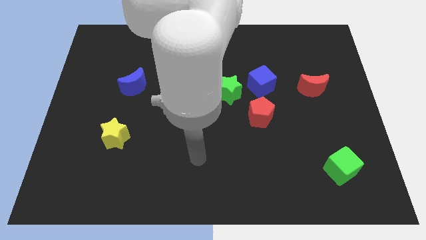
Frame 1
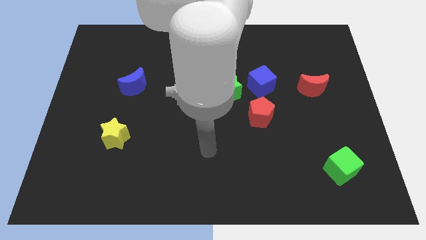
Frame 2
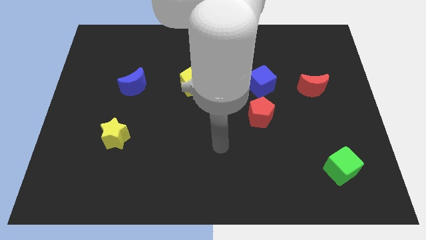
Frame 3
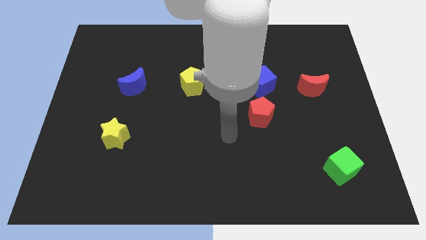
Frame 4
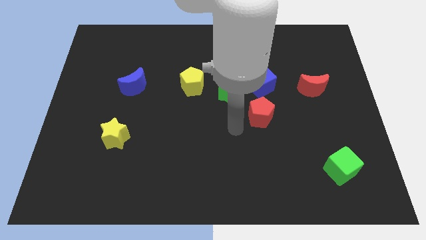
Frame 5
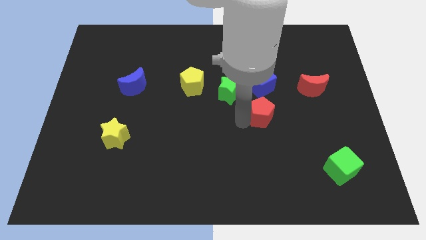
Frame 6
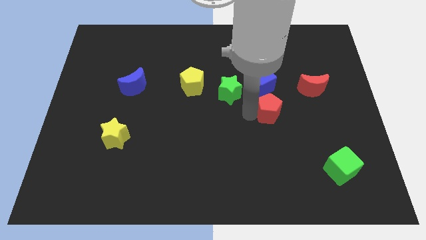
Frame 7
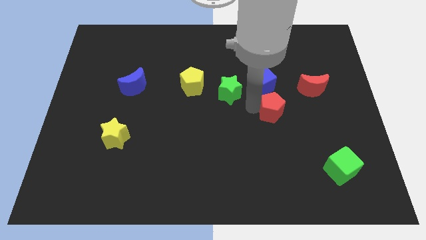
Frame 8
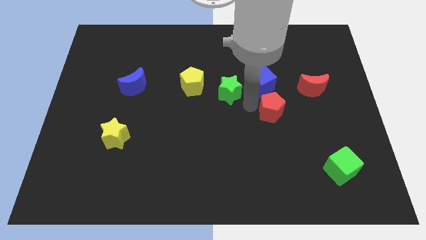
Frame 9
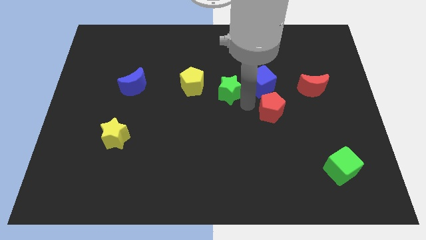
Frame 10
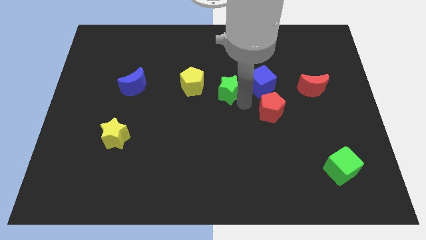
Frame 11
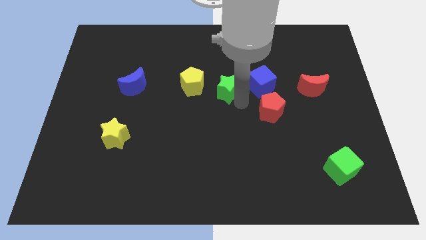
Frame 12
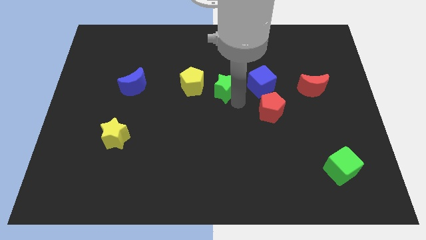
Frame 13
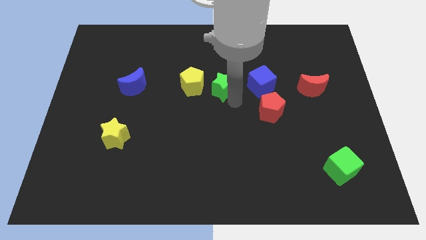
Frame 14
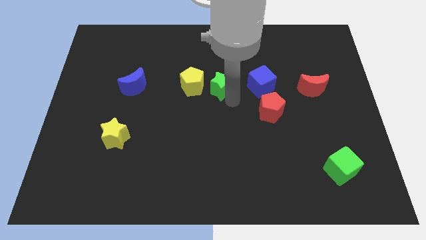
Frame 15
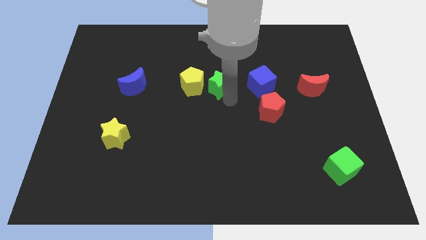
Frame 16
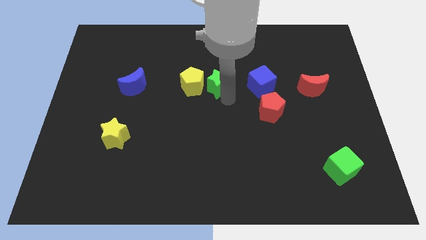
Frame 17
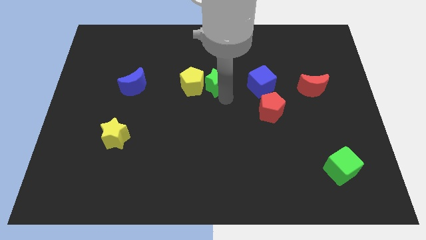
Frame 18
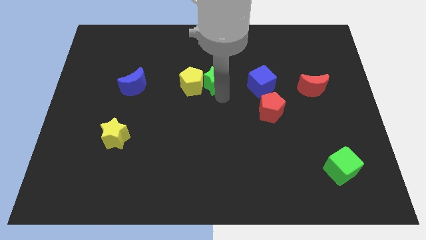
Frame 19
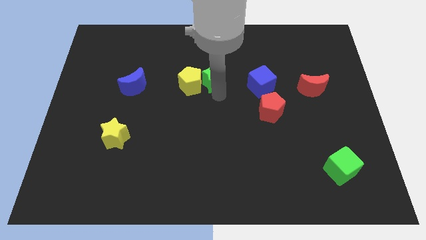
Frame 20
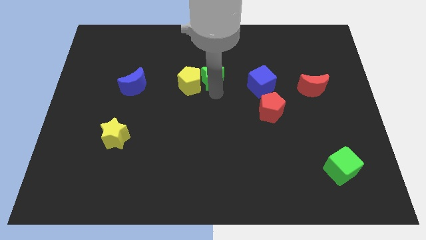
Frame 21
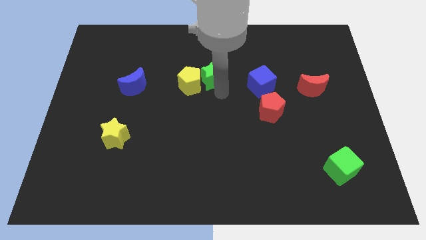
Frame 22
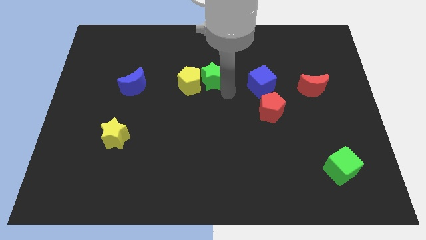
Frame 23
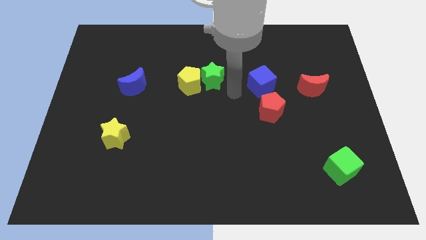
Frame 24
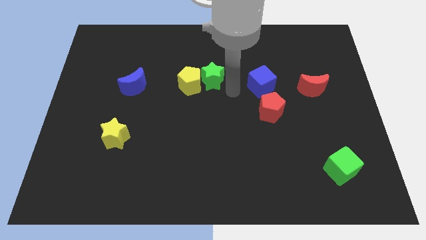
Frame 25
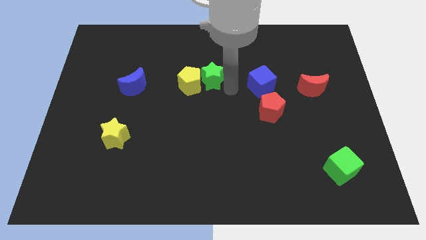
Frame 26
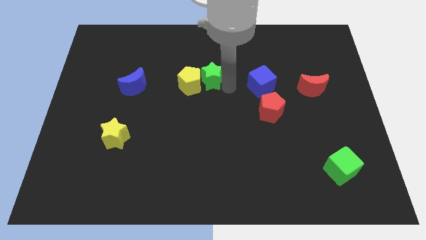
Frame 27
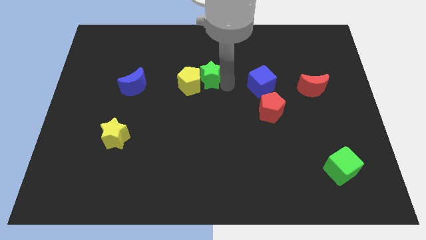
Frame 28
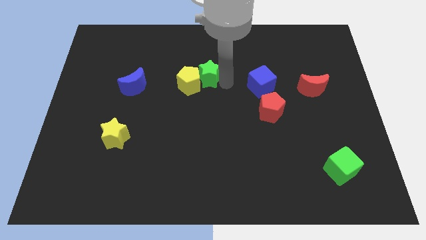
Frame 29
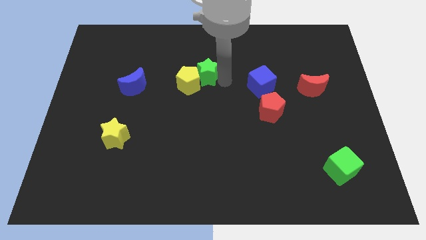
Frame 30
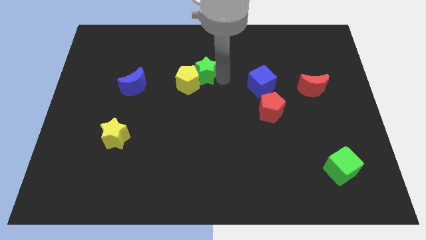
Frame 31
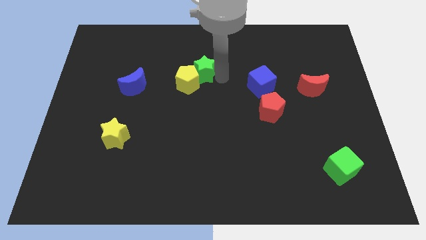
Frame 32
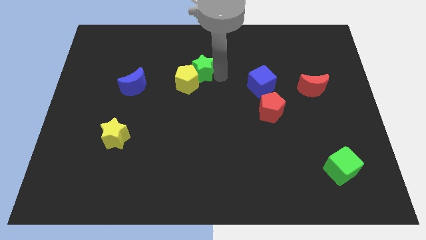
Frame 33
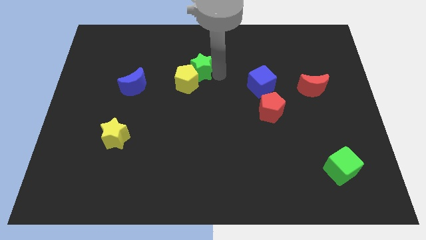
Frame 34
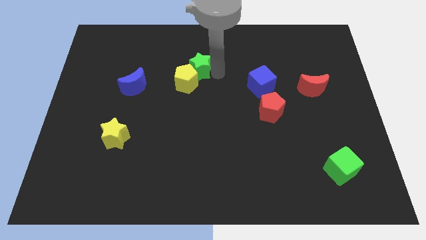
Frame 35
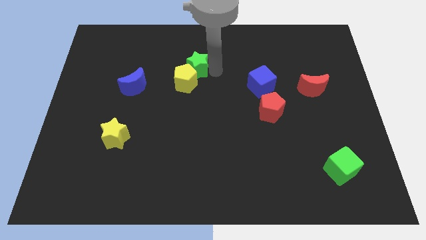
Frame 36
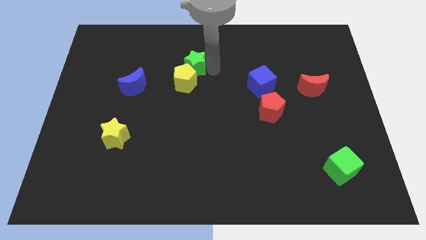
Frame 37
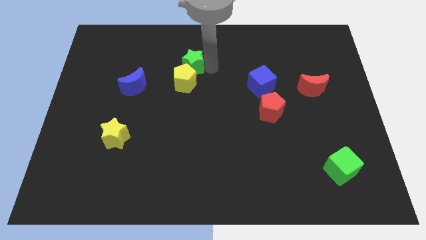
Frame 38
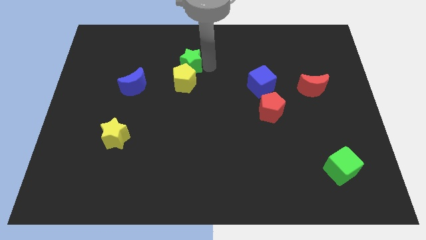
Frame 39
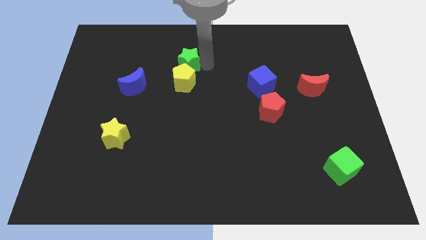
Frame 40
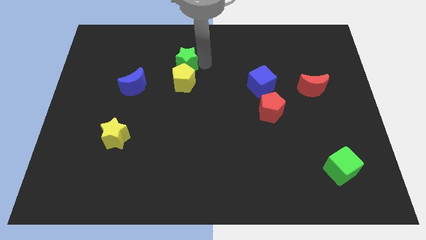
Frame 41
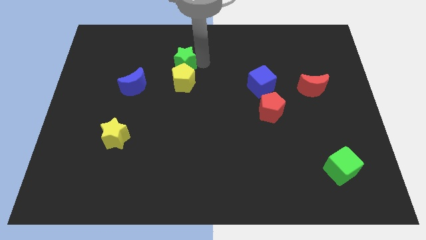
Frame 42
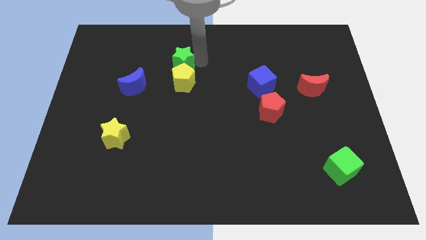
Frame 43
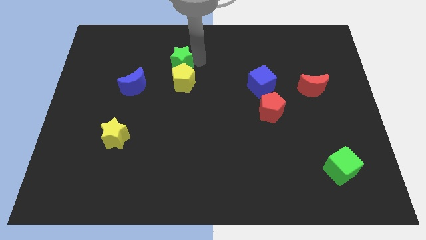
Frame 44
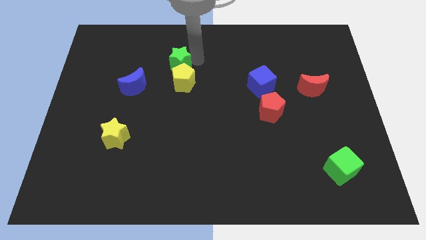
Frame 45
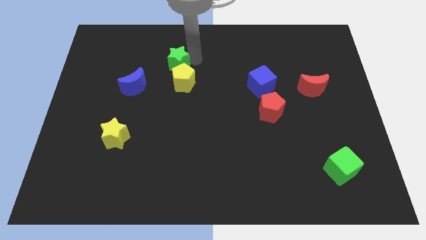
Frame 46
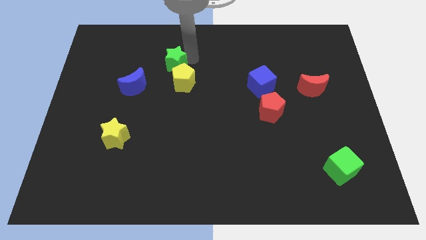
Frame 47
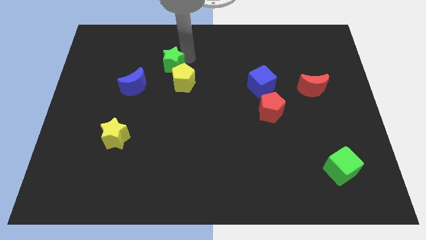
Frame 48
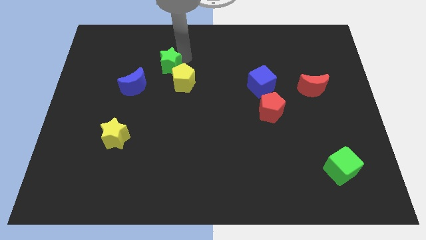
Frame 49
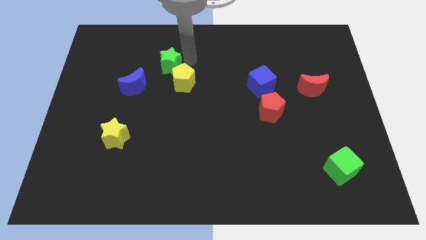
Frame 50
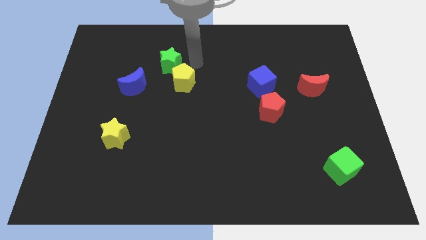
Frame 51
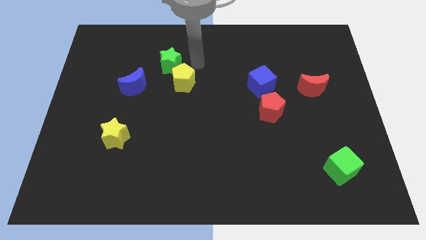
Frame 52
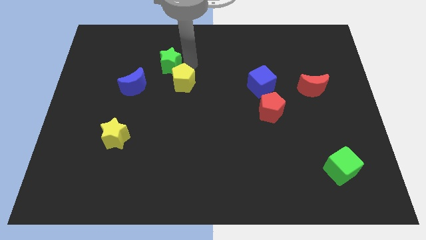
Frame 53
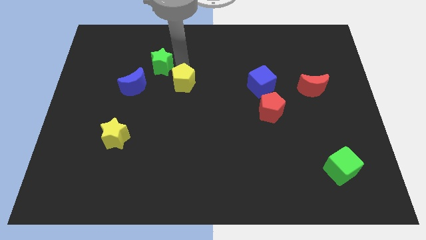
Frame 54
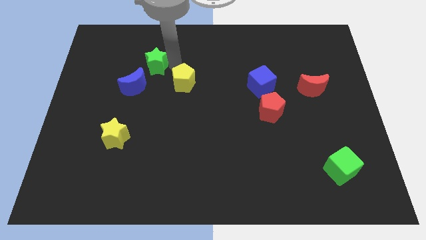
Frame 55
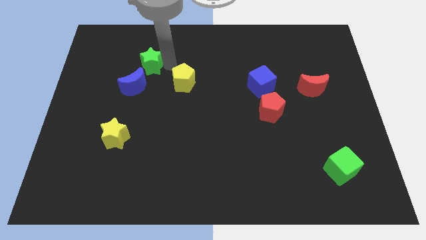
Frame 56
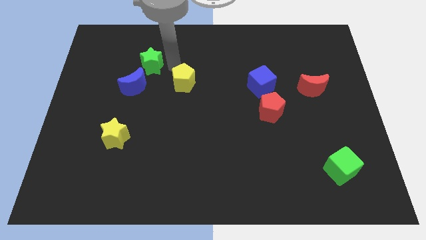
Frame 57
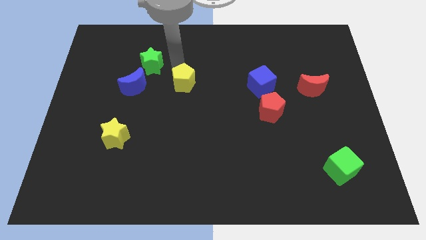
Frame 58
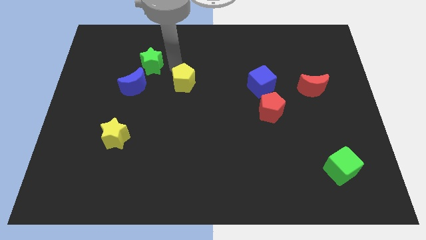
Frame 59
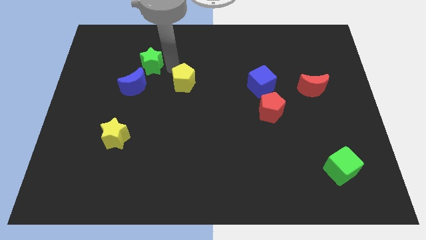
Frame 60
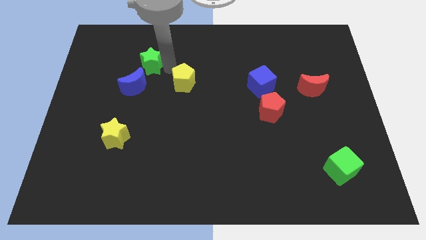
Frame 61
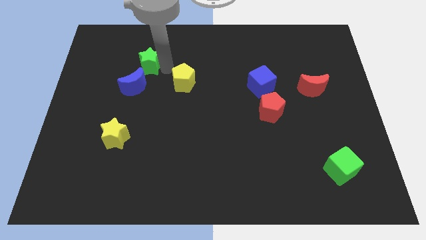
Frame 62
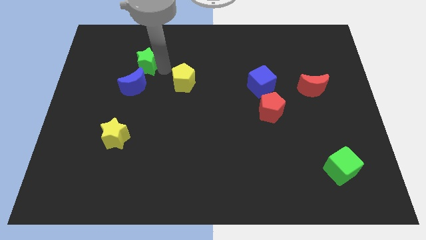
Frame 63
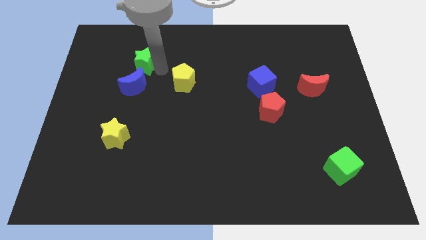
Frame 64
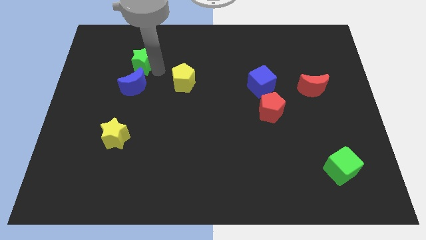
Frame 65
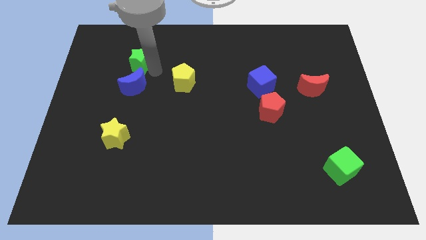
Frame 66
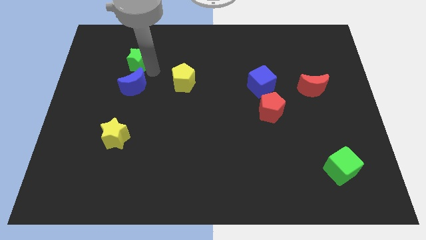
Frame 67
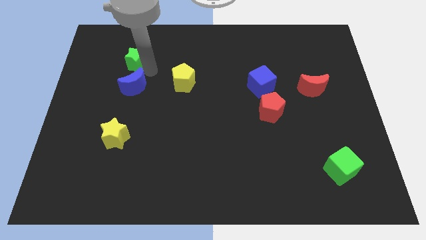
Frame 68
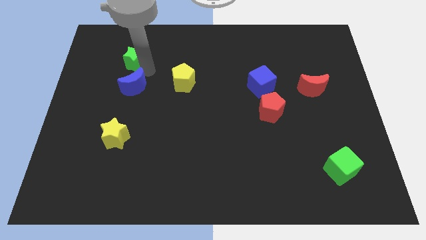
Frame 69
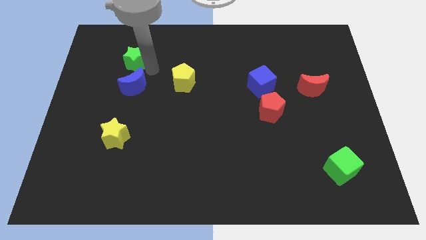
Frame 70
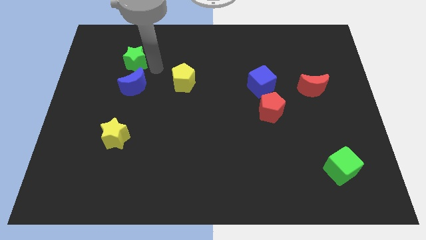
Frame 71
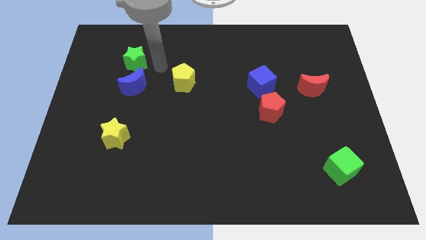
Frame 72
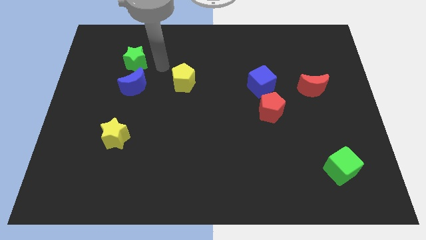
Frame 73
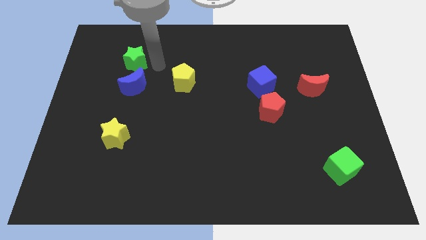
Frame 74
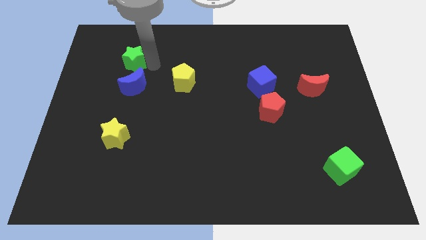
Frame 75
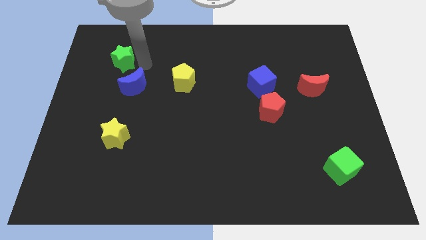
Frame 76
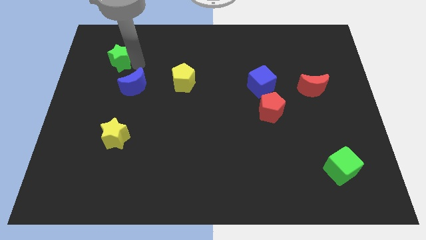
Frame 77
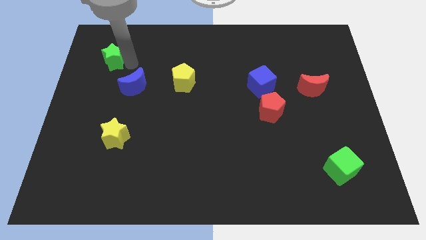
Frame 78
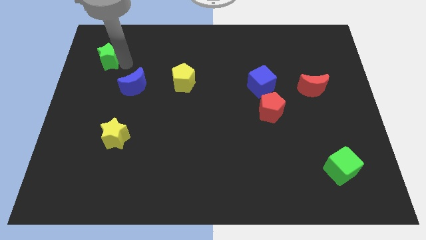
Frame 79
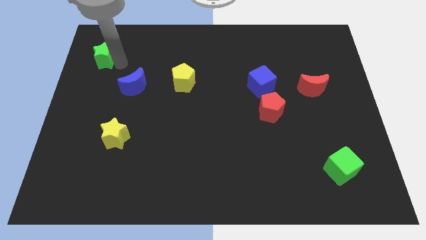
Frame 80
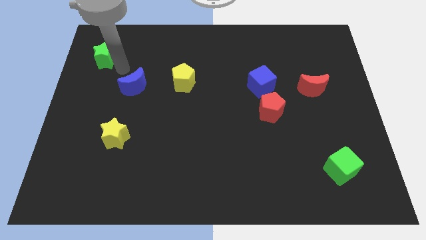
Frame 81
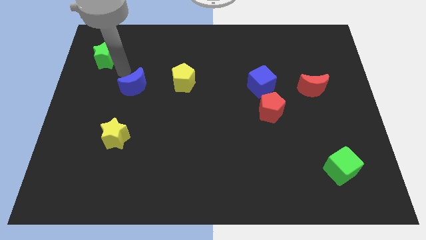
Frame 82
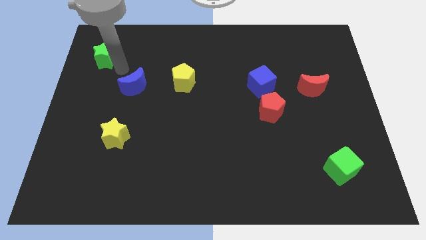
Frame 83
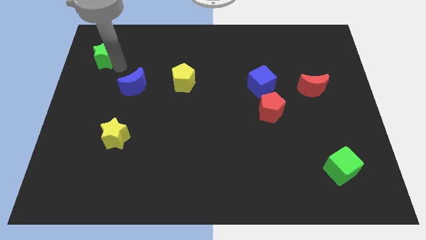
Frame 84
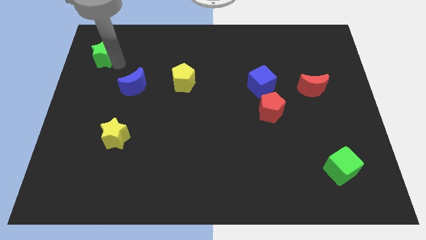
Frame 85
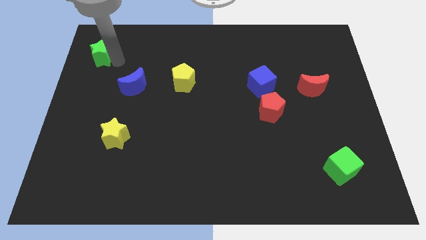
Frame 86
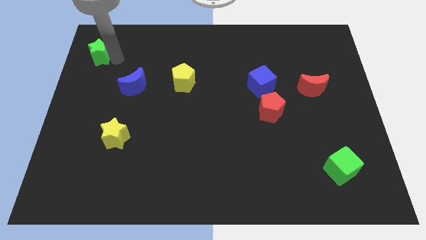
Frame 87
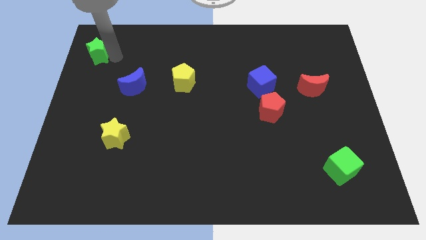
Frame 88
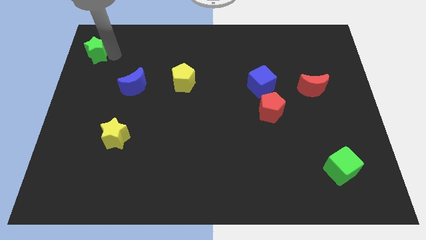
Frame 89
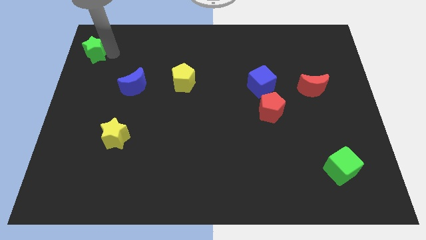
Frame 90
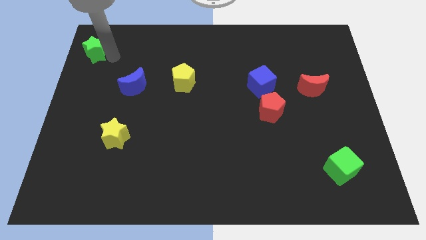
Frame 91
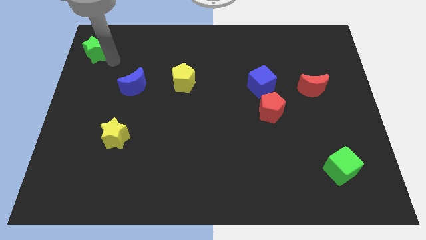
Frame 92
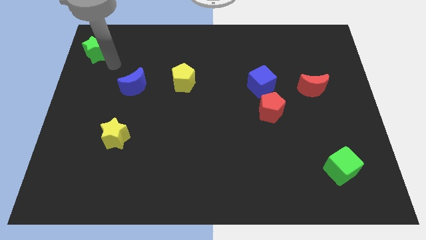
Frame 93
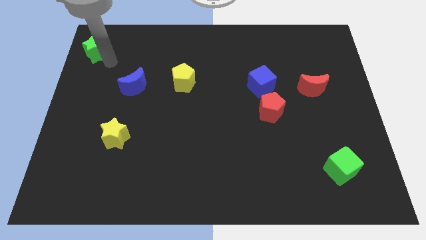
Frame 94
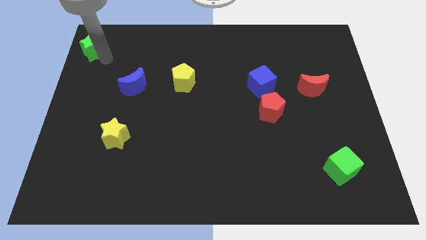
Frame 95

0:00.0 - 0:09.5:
push the green star to the top left corner
